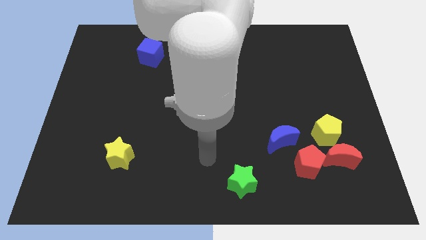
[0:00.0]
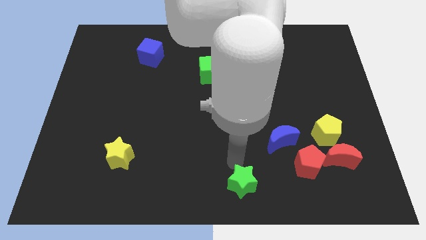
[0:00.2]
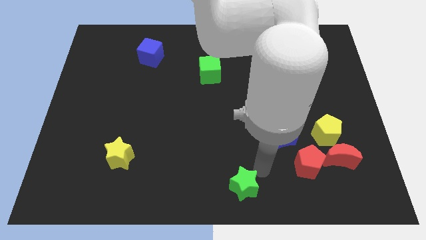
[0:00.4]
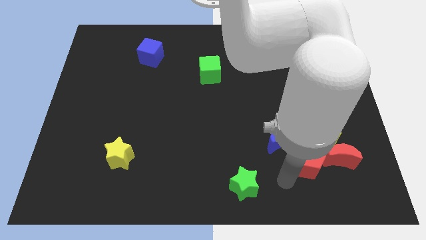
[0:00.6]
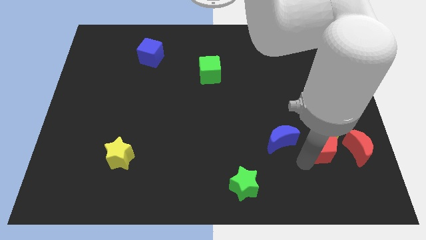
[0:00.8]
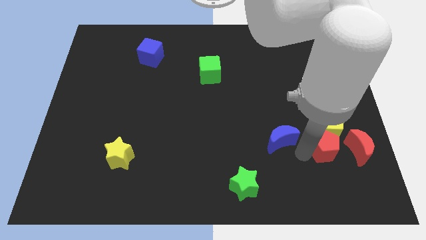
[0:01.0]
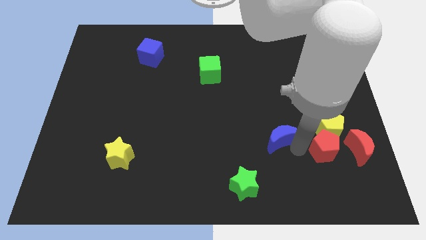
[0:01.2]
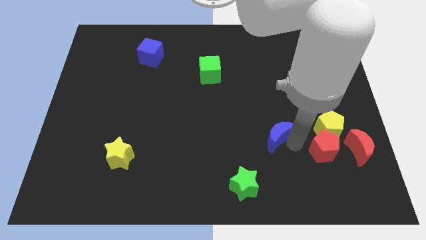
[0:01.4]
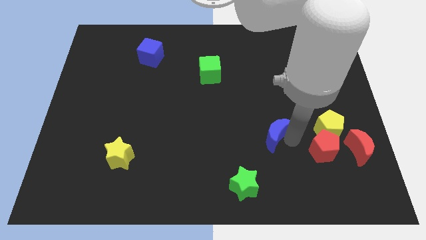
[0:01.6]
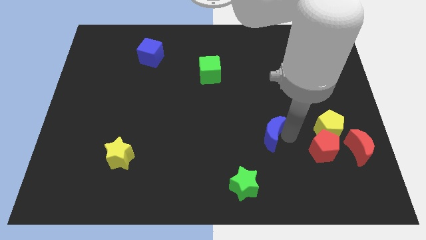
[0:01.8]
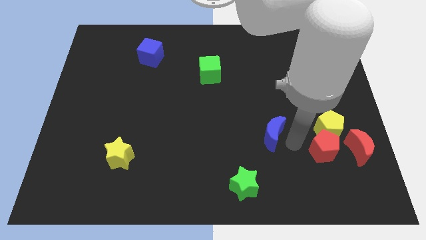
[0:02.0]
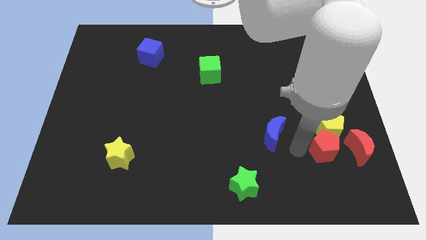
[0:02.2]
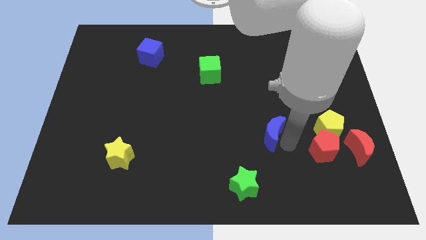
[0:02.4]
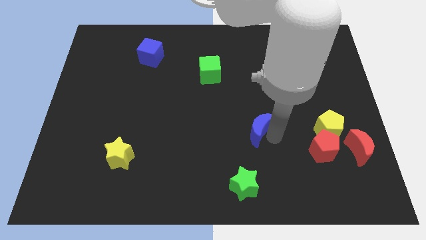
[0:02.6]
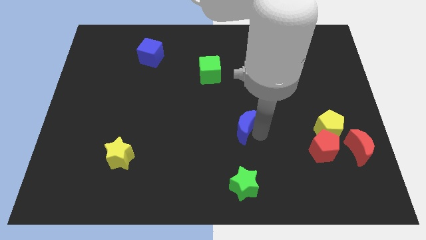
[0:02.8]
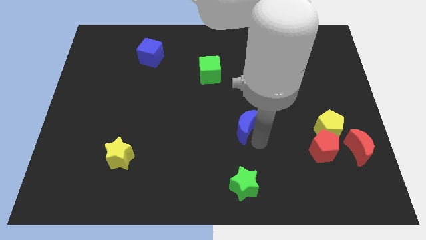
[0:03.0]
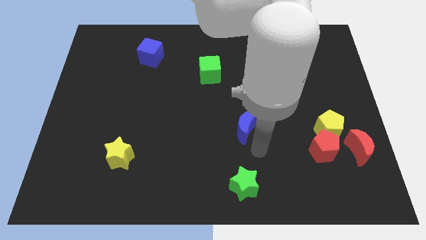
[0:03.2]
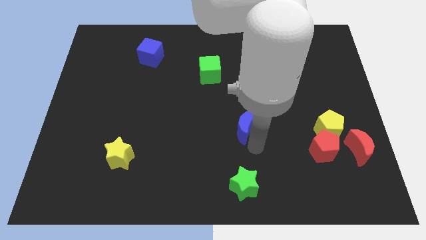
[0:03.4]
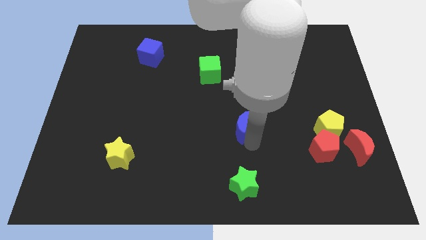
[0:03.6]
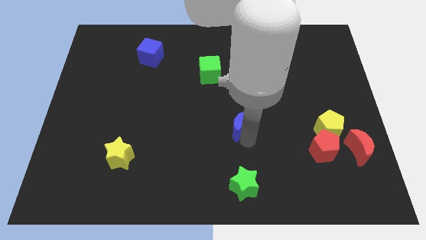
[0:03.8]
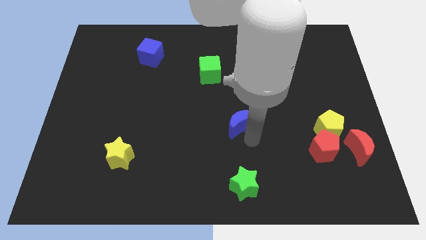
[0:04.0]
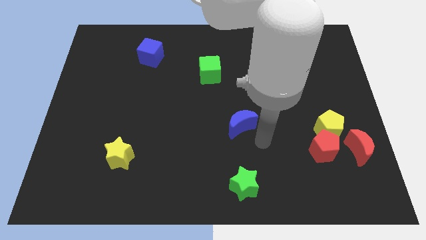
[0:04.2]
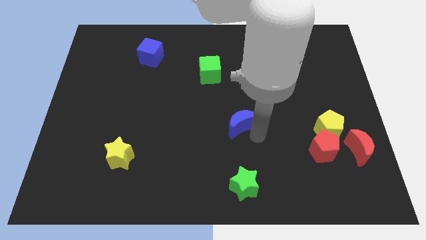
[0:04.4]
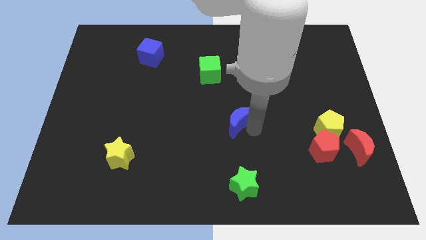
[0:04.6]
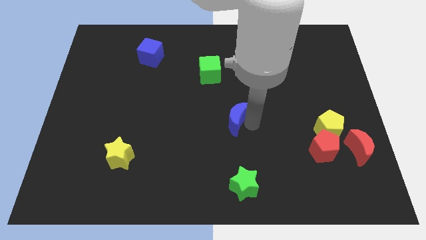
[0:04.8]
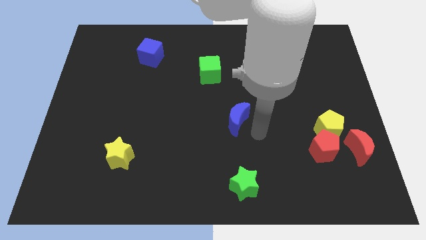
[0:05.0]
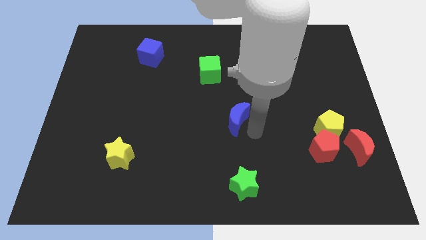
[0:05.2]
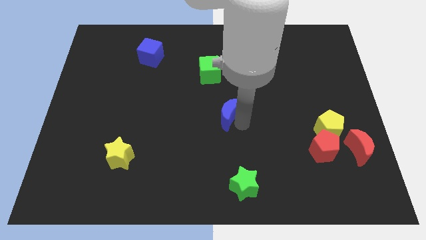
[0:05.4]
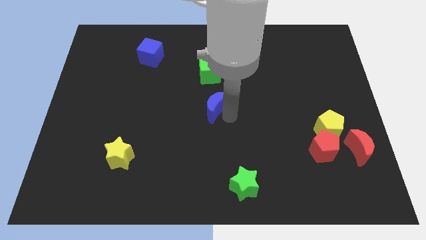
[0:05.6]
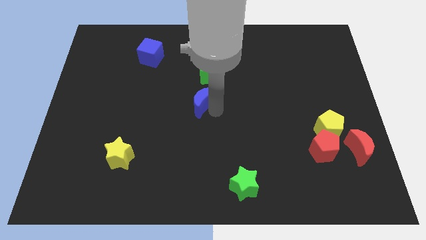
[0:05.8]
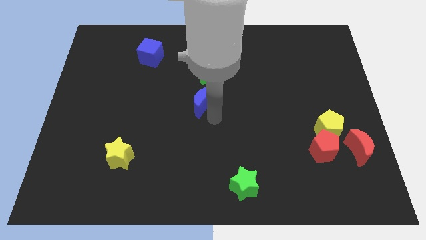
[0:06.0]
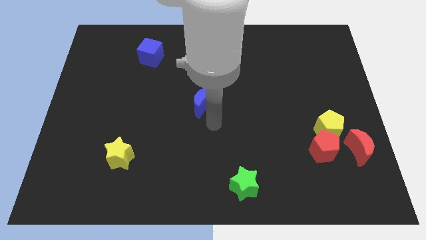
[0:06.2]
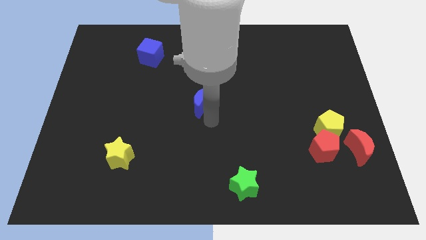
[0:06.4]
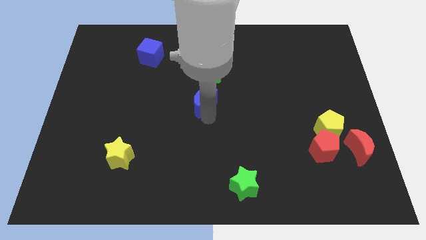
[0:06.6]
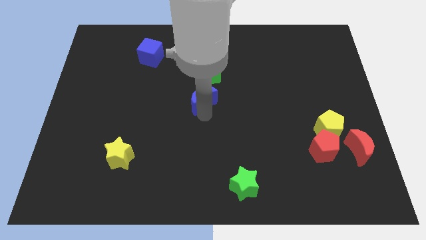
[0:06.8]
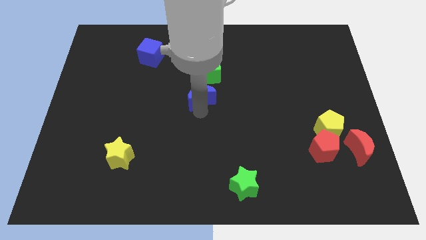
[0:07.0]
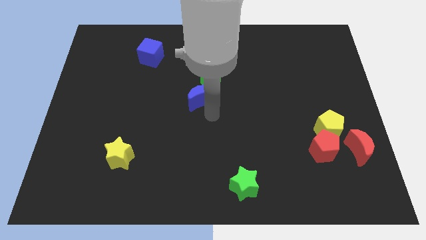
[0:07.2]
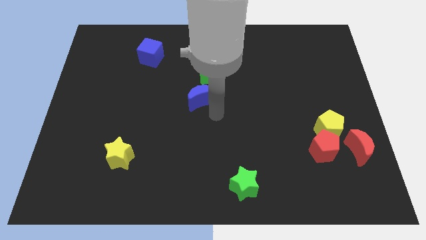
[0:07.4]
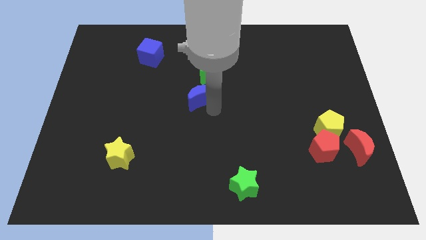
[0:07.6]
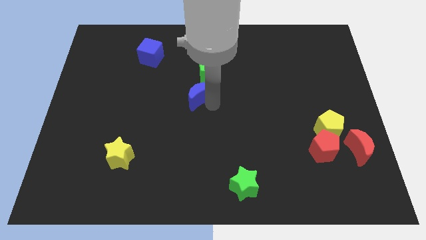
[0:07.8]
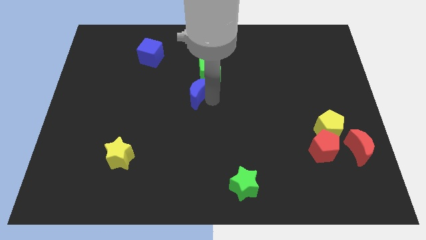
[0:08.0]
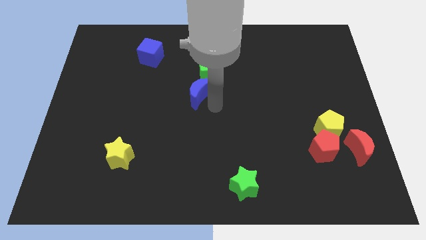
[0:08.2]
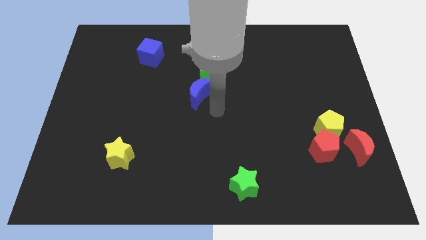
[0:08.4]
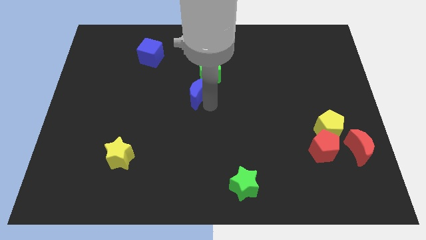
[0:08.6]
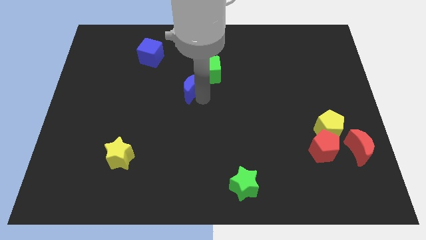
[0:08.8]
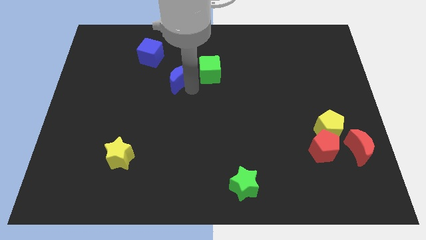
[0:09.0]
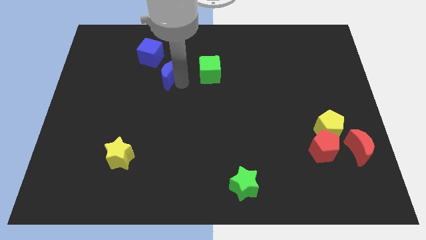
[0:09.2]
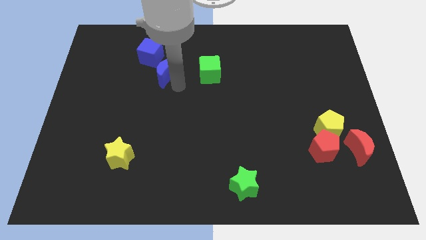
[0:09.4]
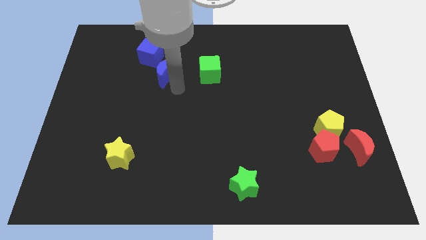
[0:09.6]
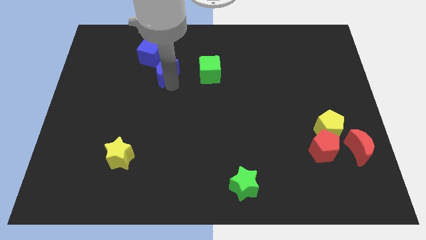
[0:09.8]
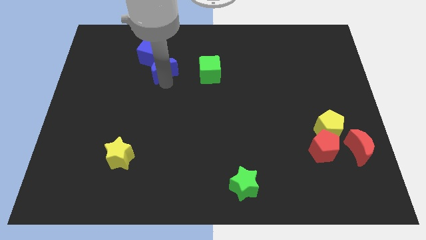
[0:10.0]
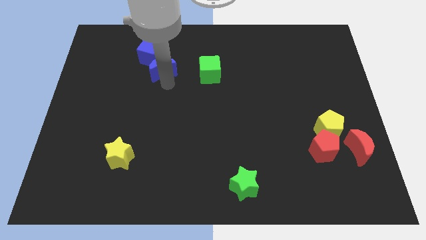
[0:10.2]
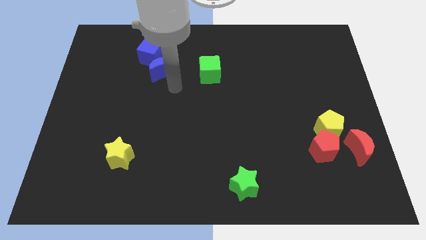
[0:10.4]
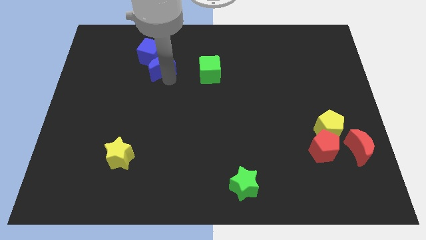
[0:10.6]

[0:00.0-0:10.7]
push the blue moon to the blue cube

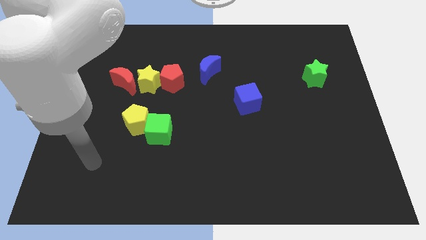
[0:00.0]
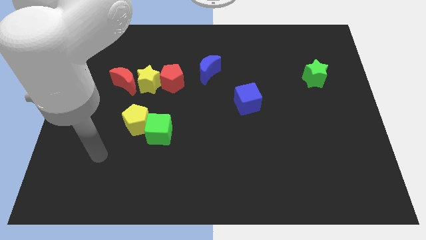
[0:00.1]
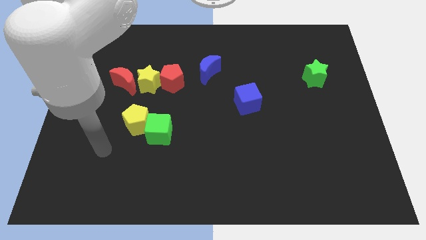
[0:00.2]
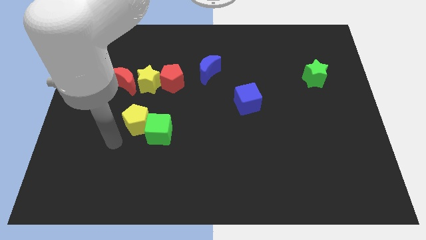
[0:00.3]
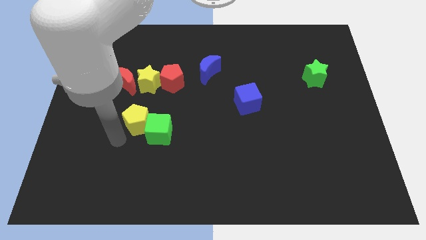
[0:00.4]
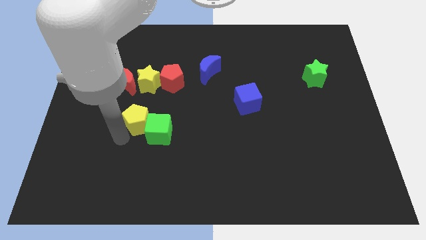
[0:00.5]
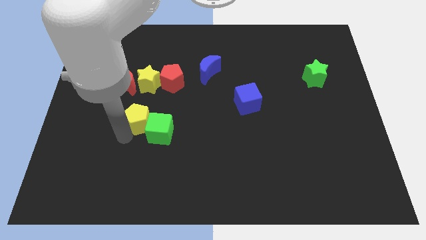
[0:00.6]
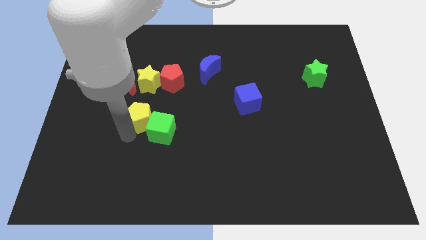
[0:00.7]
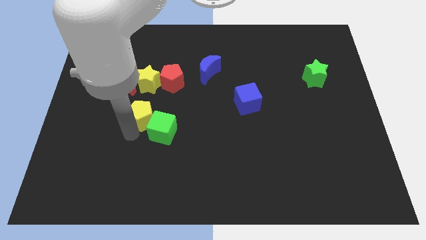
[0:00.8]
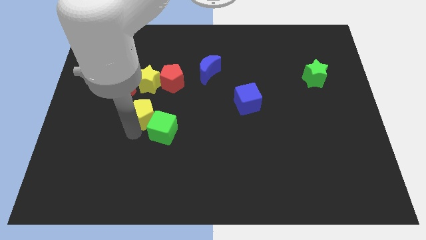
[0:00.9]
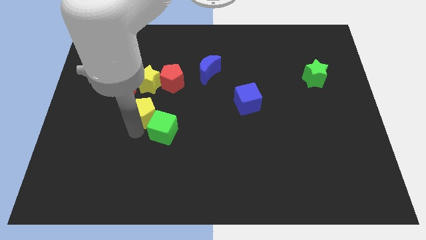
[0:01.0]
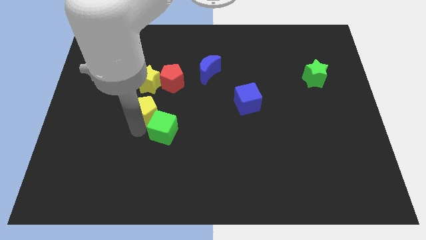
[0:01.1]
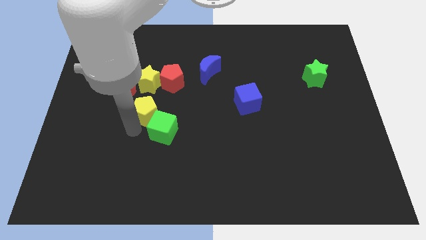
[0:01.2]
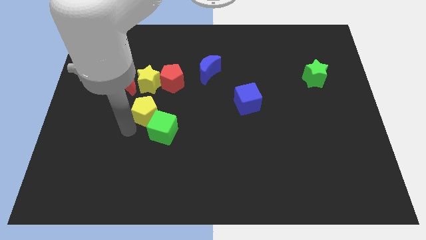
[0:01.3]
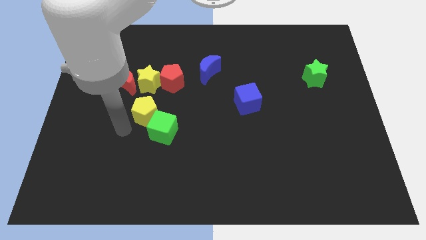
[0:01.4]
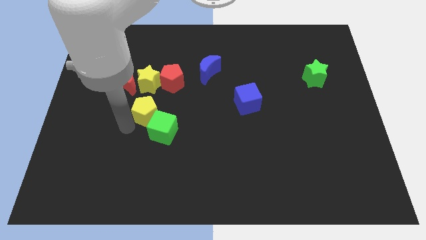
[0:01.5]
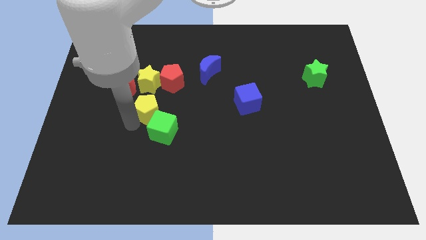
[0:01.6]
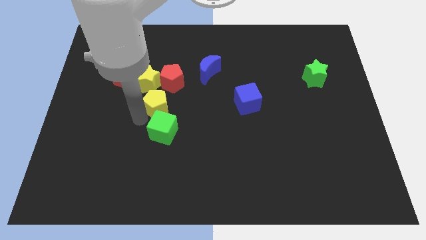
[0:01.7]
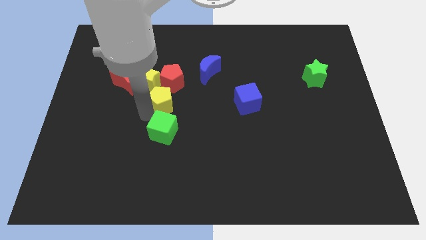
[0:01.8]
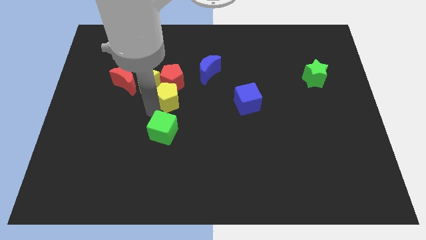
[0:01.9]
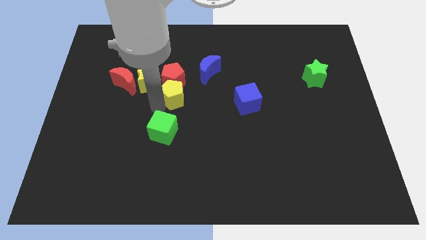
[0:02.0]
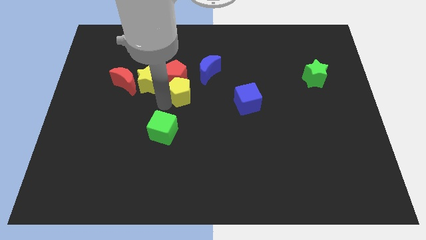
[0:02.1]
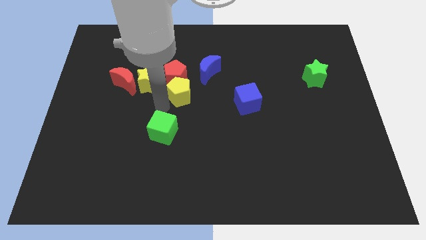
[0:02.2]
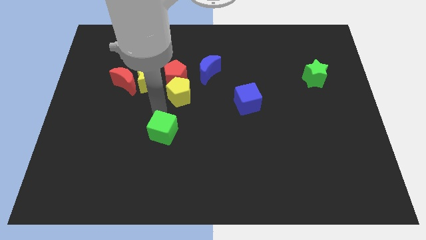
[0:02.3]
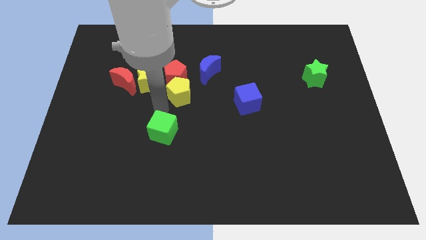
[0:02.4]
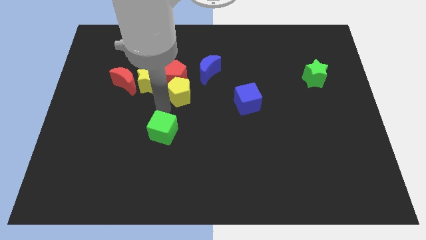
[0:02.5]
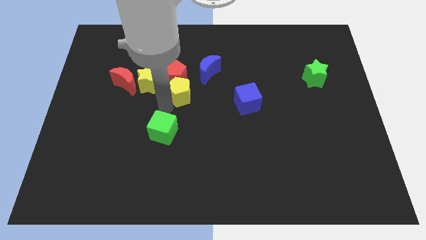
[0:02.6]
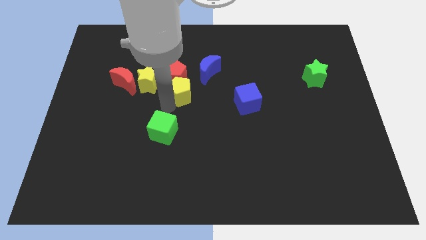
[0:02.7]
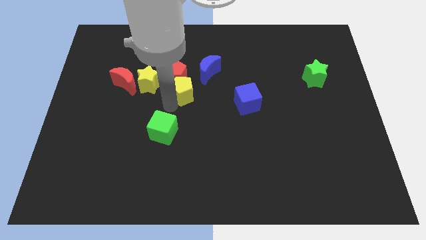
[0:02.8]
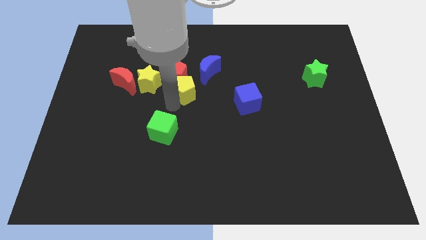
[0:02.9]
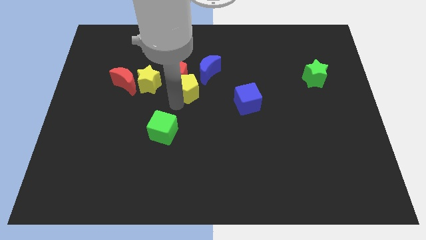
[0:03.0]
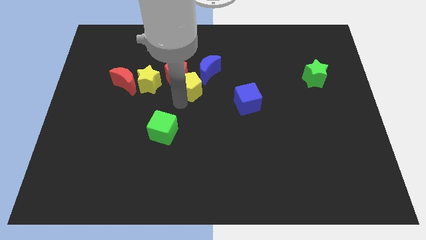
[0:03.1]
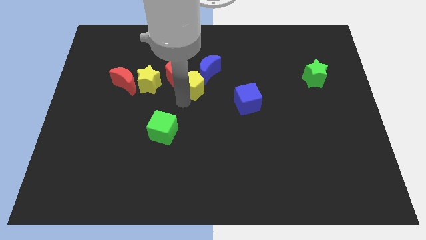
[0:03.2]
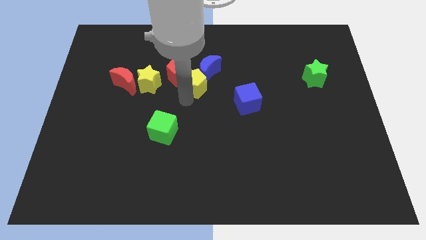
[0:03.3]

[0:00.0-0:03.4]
move the yellow pentagon close to the blue moon
